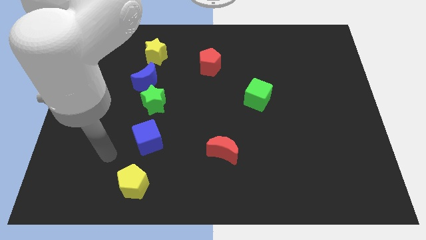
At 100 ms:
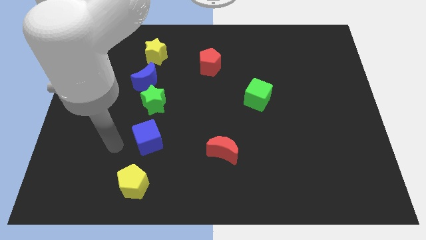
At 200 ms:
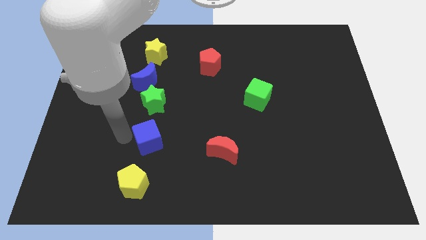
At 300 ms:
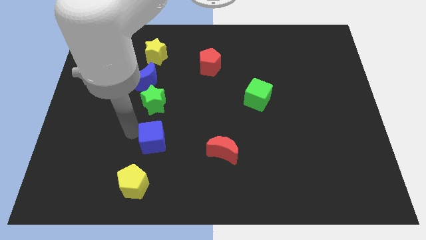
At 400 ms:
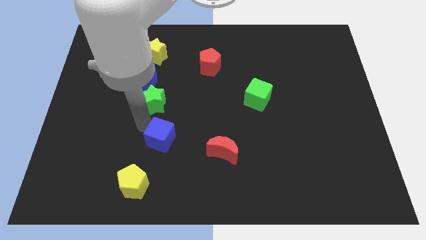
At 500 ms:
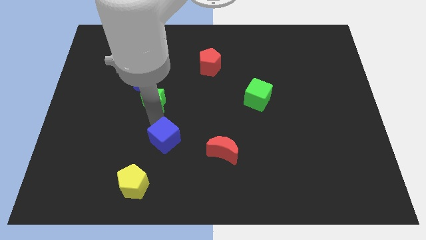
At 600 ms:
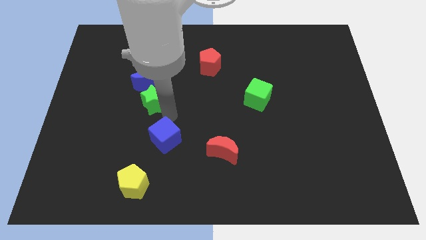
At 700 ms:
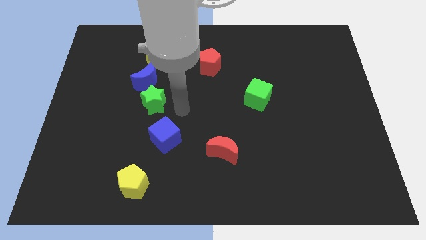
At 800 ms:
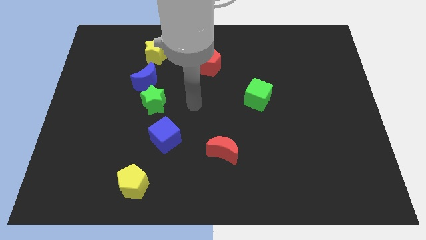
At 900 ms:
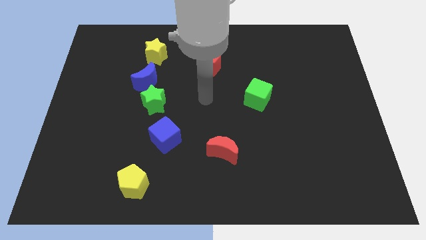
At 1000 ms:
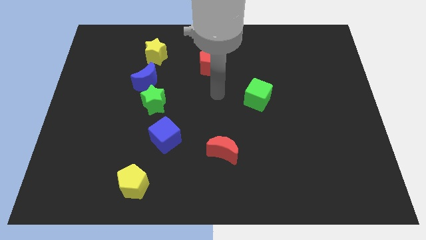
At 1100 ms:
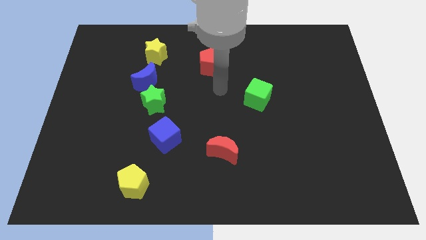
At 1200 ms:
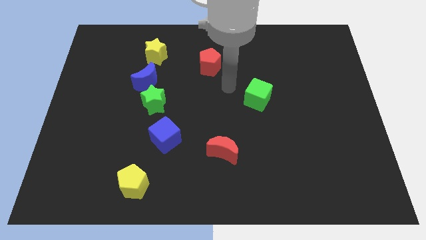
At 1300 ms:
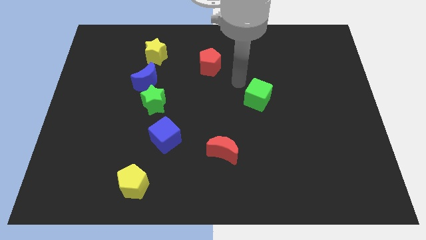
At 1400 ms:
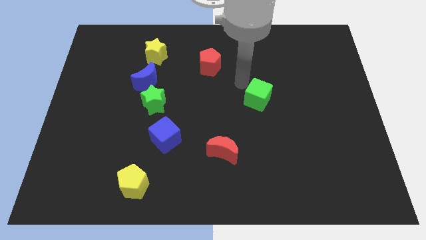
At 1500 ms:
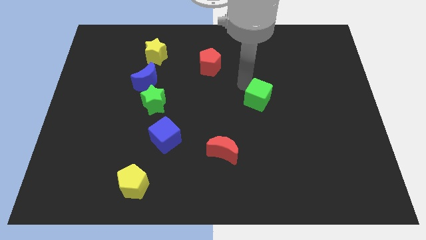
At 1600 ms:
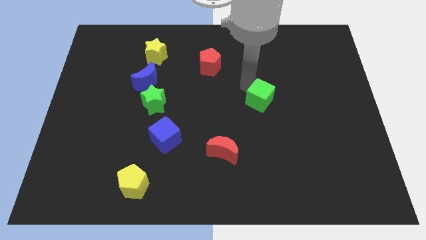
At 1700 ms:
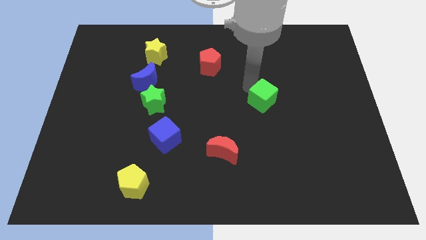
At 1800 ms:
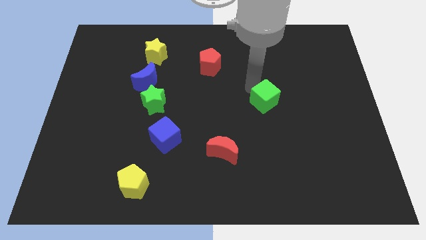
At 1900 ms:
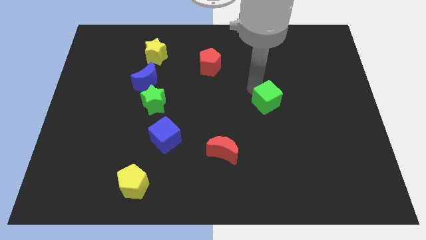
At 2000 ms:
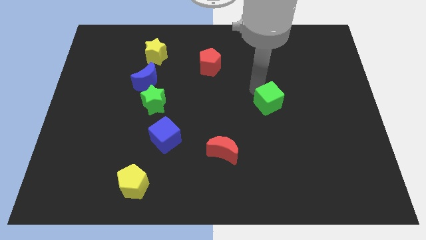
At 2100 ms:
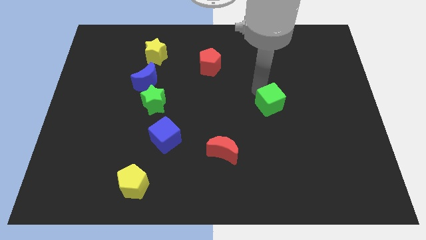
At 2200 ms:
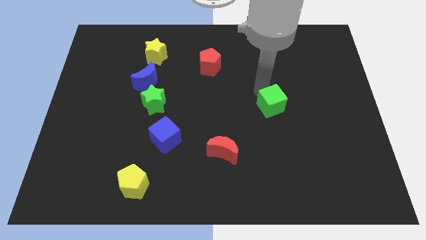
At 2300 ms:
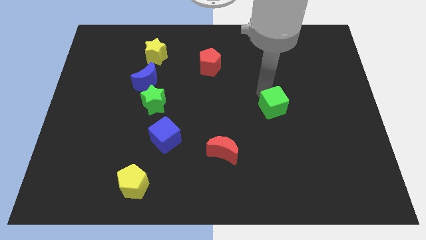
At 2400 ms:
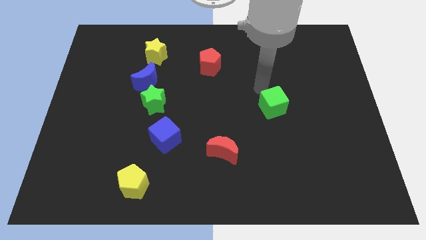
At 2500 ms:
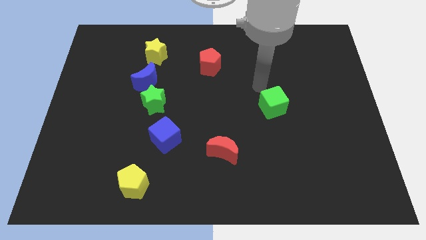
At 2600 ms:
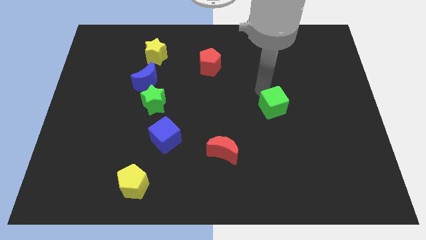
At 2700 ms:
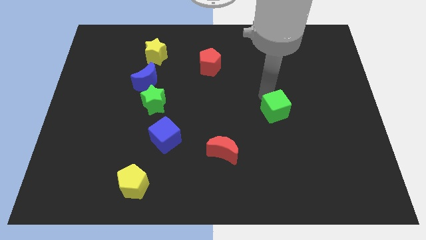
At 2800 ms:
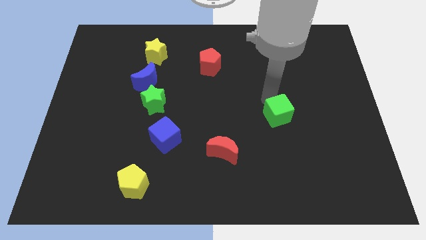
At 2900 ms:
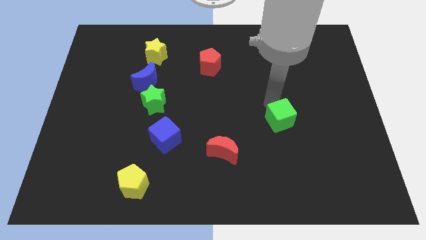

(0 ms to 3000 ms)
move the green cube down and then to the right slightly

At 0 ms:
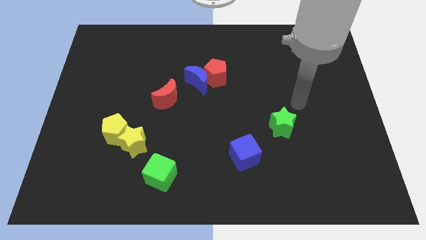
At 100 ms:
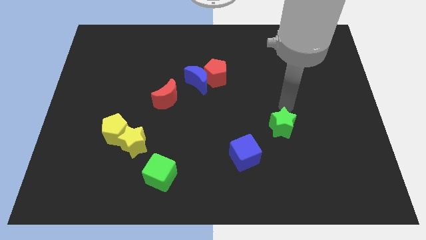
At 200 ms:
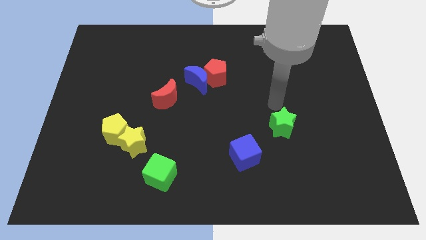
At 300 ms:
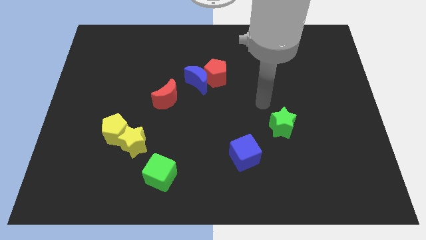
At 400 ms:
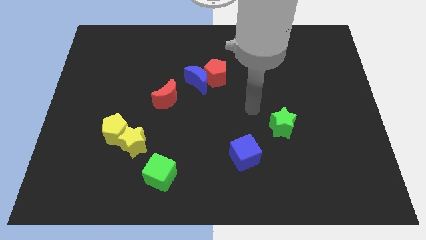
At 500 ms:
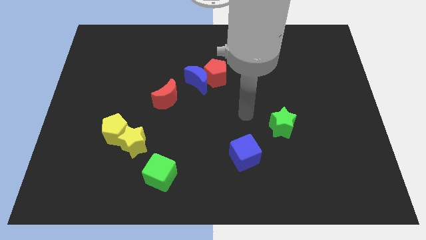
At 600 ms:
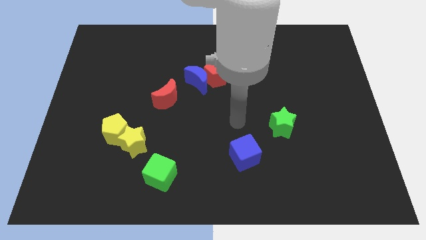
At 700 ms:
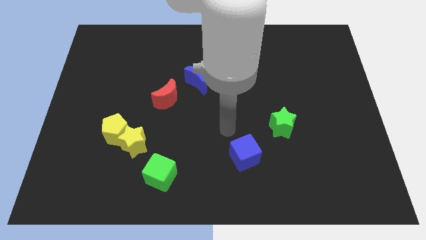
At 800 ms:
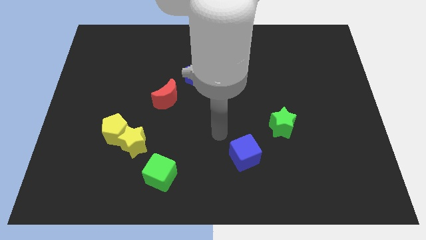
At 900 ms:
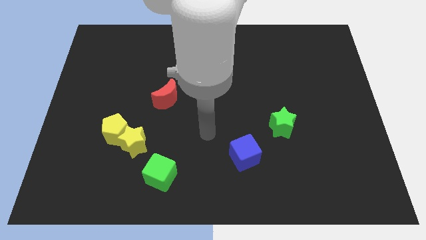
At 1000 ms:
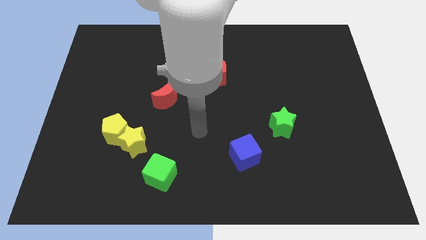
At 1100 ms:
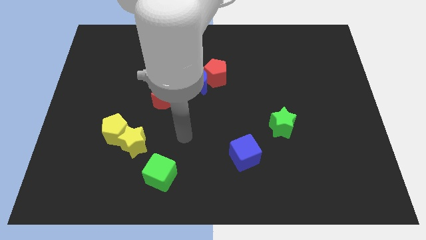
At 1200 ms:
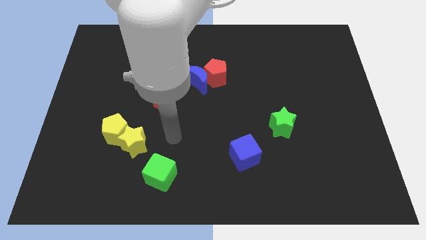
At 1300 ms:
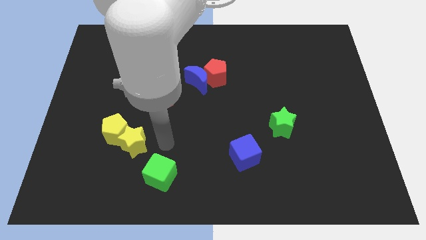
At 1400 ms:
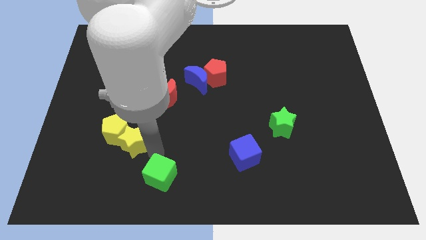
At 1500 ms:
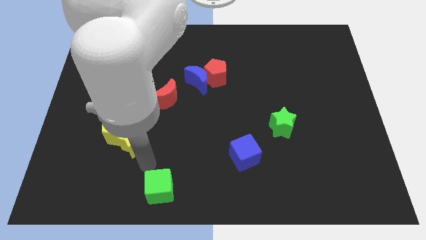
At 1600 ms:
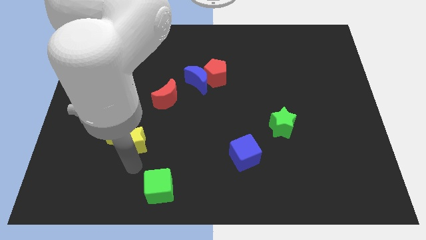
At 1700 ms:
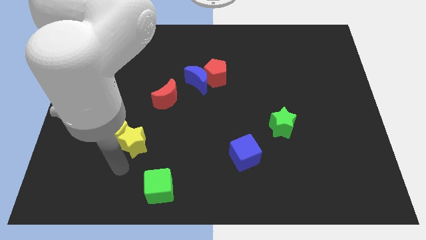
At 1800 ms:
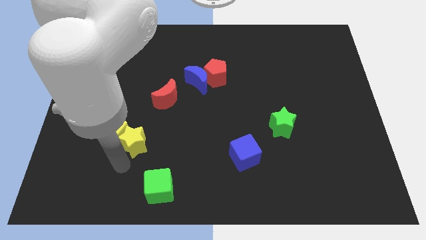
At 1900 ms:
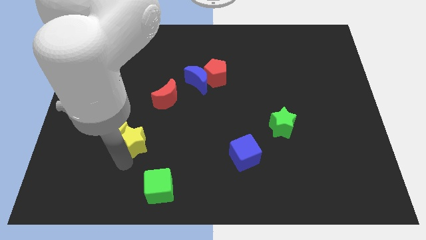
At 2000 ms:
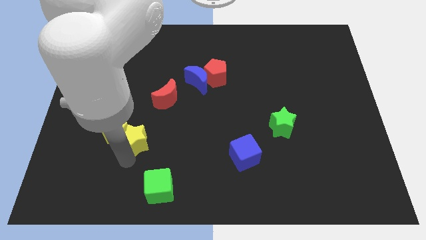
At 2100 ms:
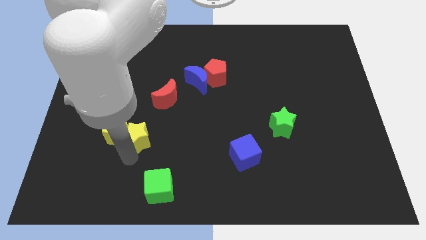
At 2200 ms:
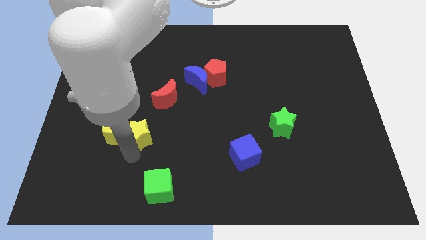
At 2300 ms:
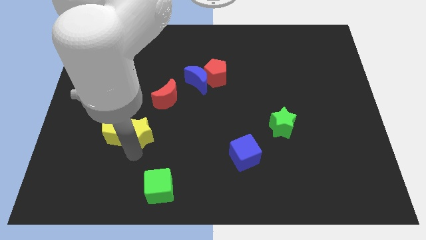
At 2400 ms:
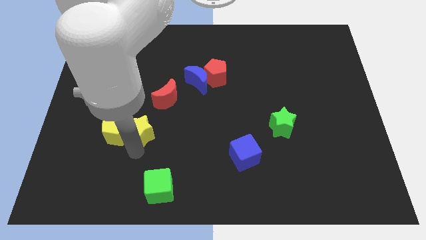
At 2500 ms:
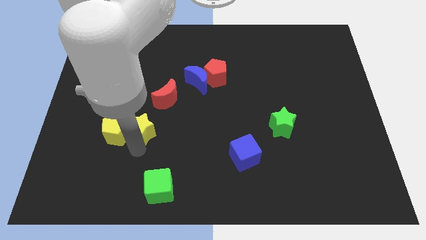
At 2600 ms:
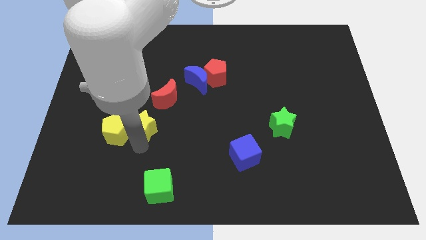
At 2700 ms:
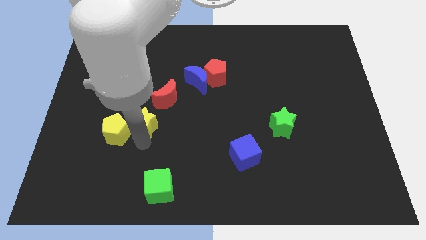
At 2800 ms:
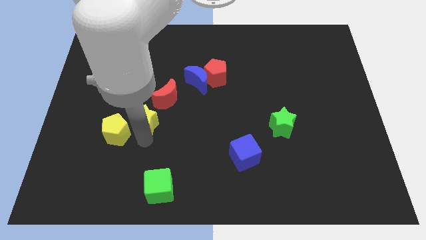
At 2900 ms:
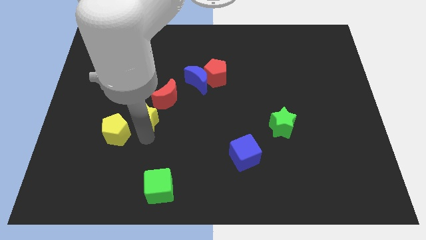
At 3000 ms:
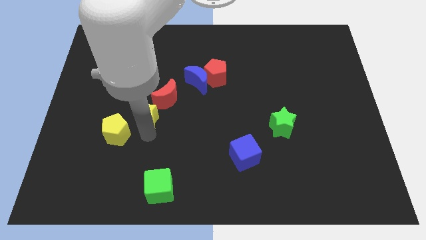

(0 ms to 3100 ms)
push the yellow star slightly upwards

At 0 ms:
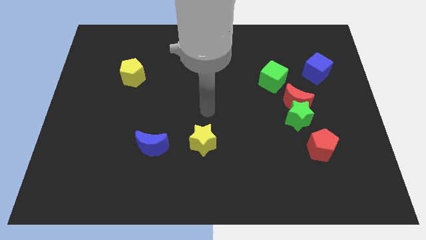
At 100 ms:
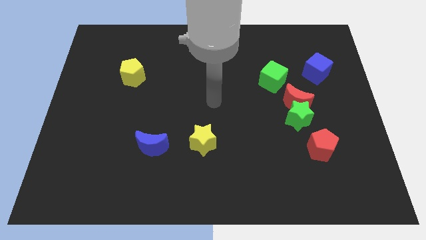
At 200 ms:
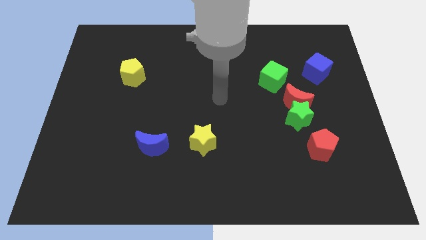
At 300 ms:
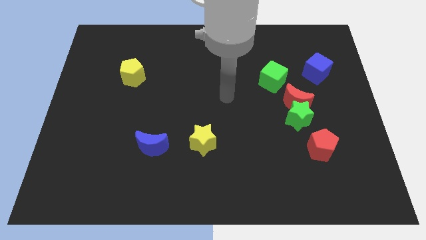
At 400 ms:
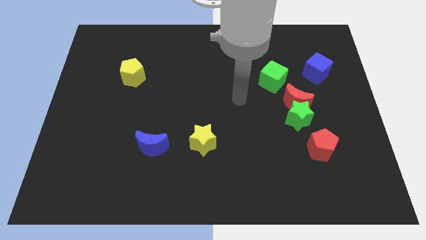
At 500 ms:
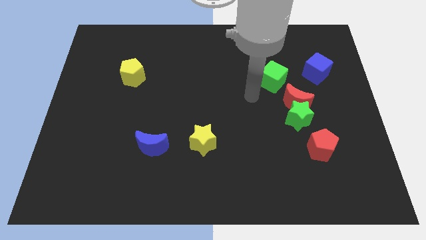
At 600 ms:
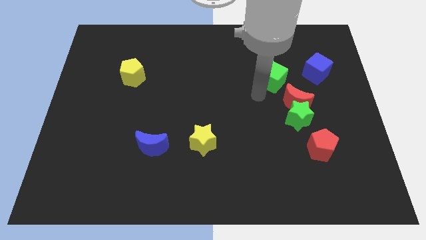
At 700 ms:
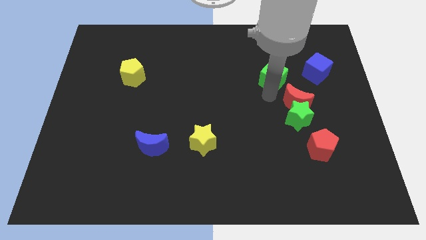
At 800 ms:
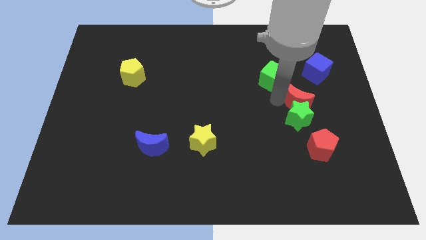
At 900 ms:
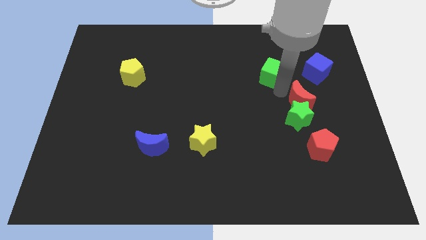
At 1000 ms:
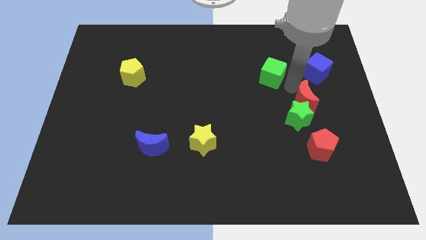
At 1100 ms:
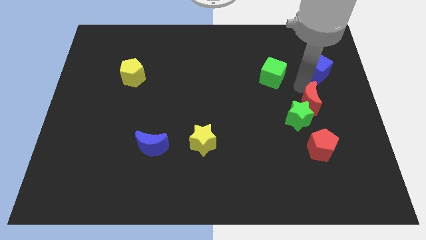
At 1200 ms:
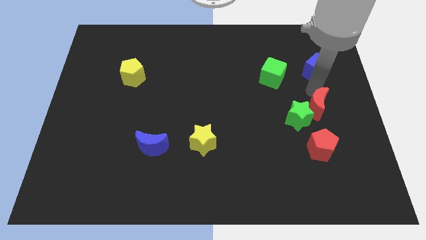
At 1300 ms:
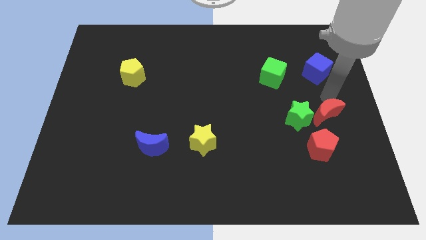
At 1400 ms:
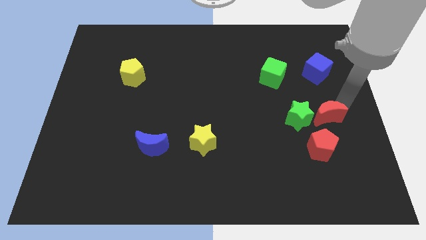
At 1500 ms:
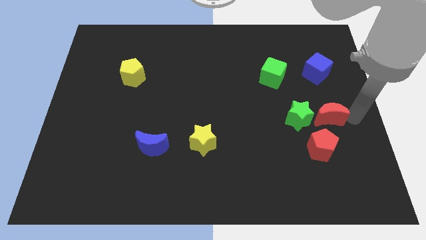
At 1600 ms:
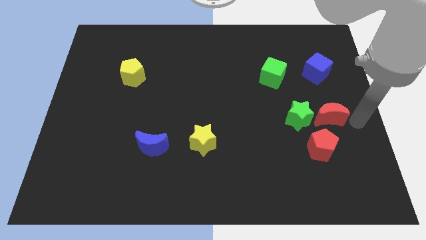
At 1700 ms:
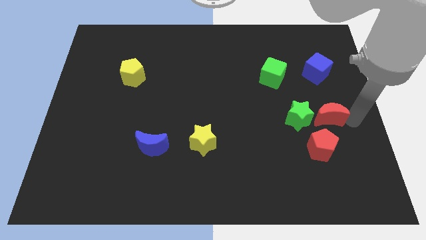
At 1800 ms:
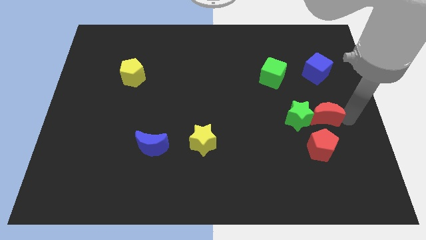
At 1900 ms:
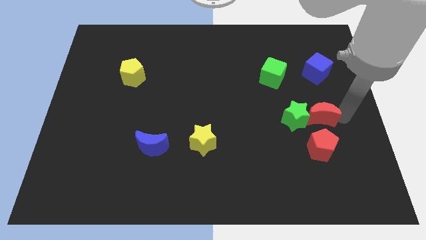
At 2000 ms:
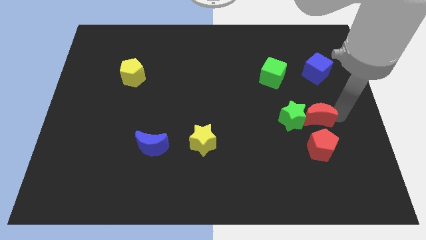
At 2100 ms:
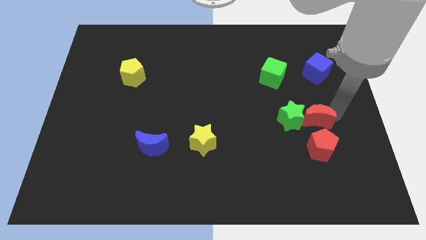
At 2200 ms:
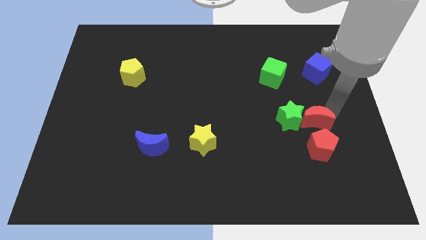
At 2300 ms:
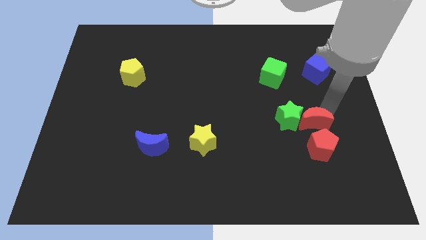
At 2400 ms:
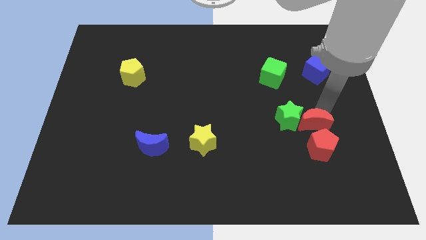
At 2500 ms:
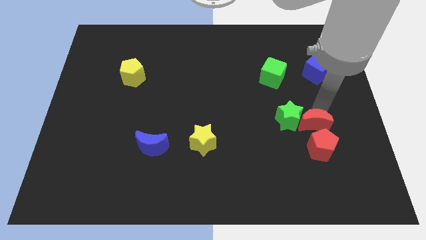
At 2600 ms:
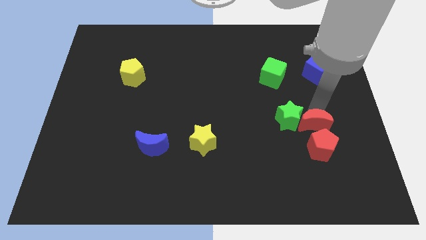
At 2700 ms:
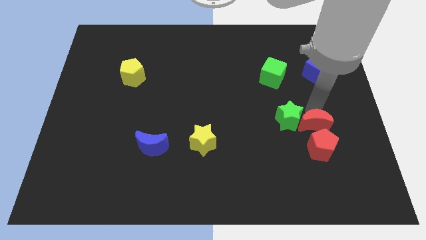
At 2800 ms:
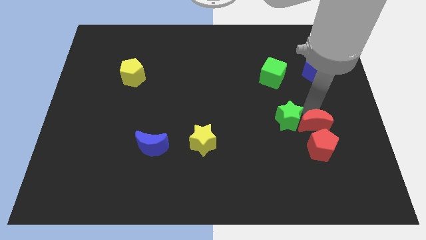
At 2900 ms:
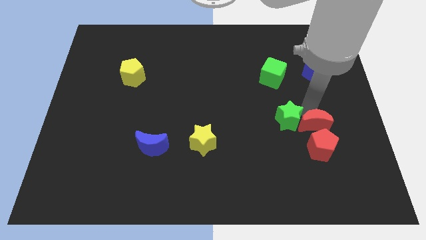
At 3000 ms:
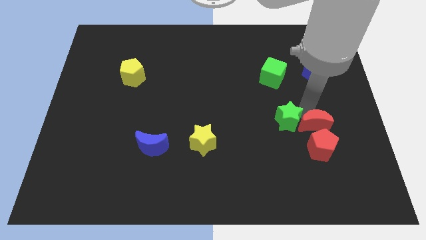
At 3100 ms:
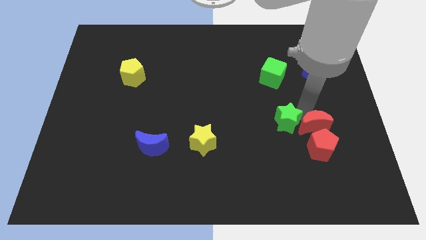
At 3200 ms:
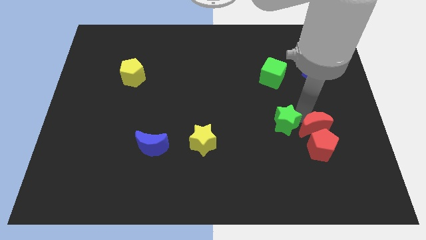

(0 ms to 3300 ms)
slide the red moon slightly down
